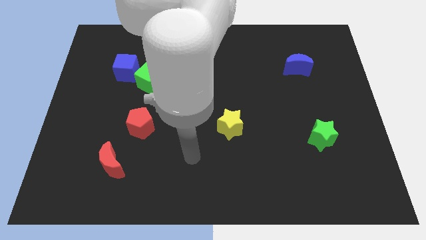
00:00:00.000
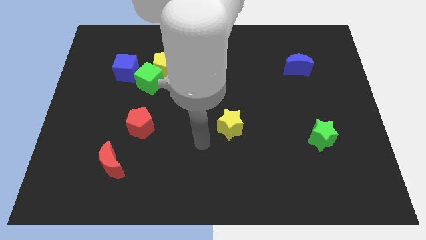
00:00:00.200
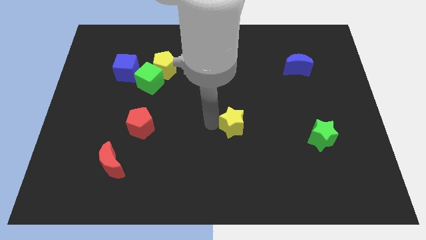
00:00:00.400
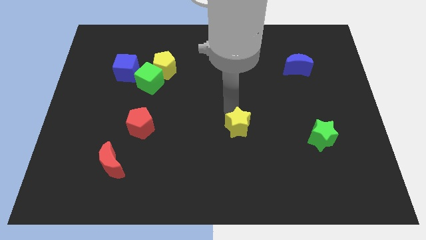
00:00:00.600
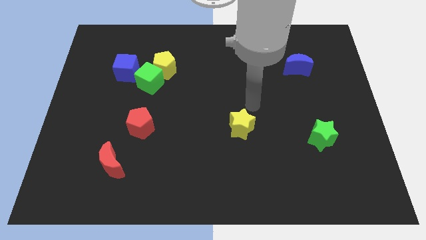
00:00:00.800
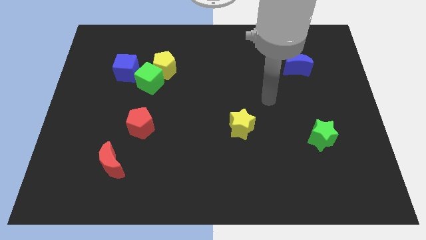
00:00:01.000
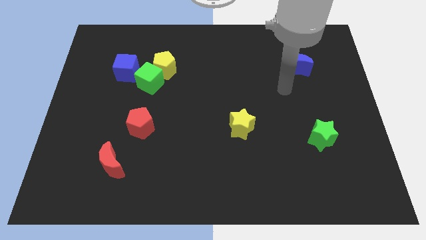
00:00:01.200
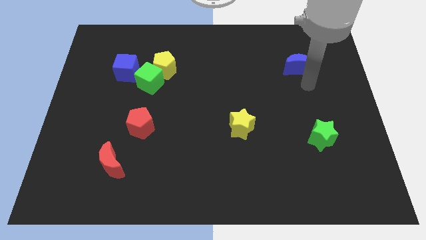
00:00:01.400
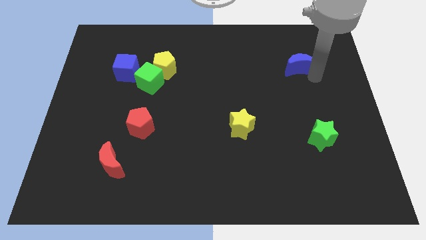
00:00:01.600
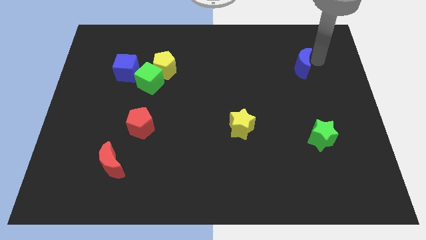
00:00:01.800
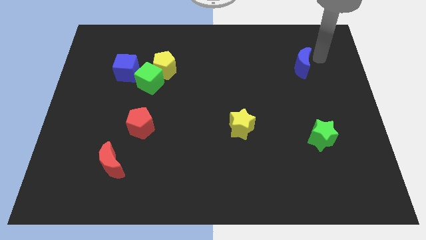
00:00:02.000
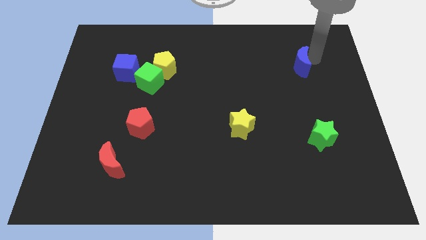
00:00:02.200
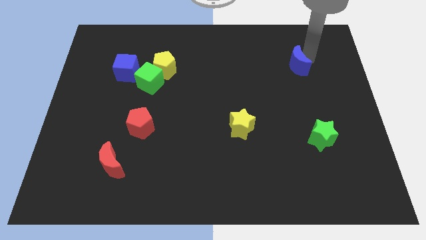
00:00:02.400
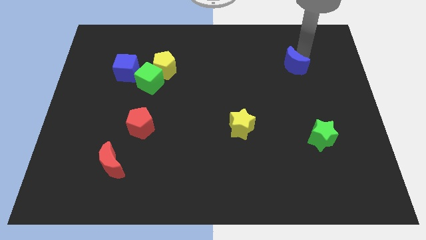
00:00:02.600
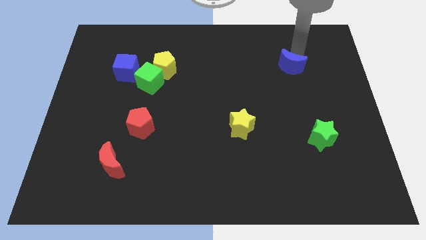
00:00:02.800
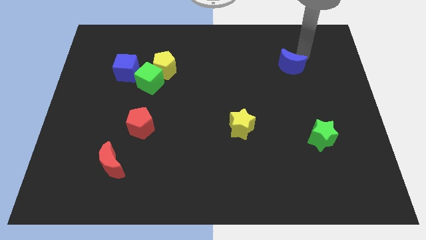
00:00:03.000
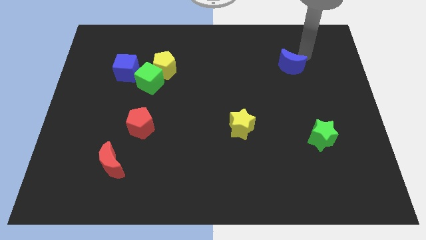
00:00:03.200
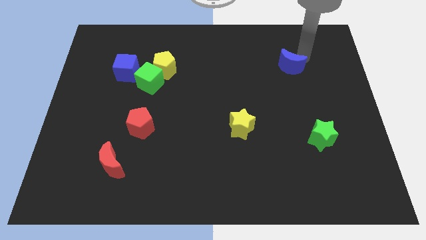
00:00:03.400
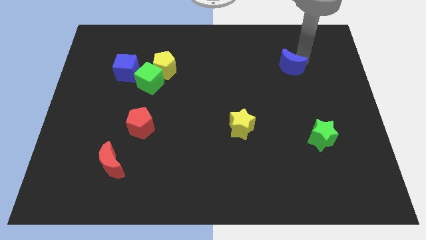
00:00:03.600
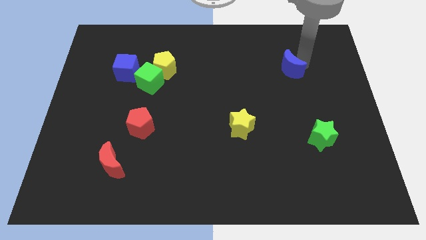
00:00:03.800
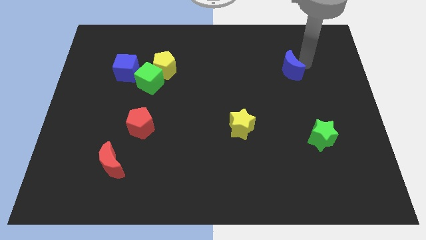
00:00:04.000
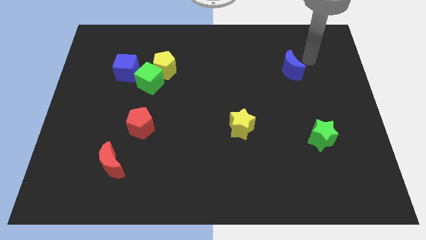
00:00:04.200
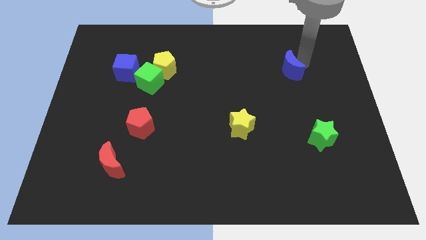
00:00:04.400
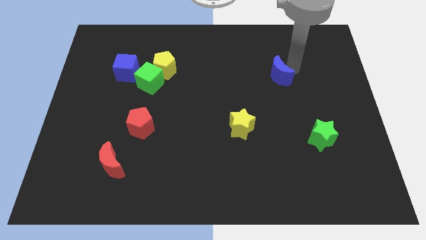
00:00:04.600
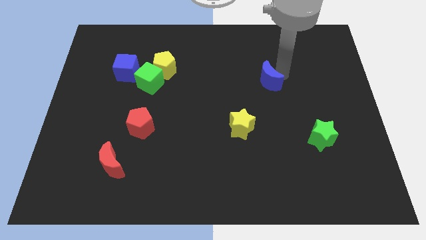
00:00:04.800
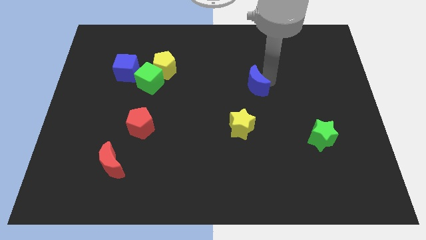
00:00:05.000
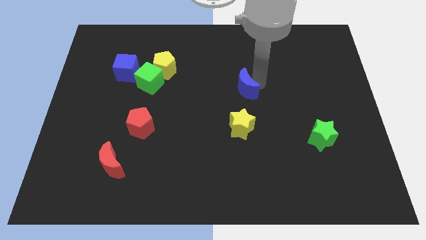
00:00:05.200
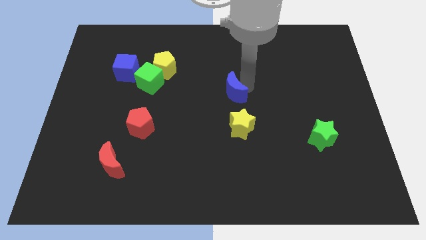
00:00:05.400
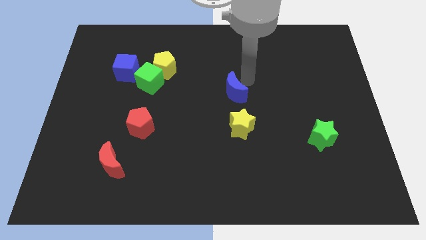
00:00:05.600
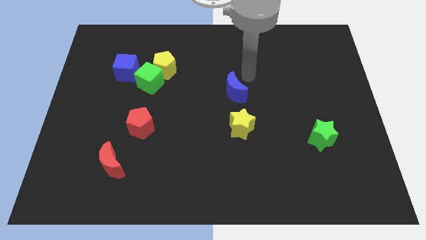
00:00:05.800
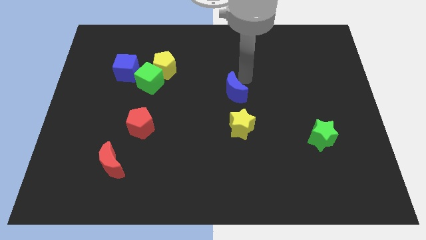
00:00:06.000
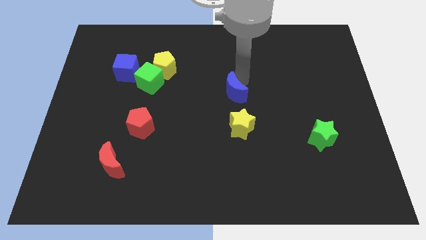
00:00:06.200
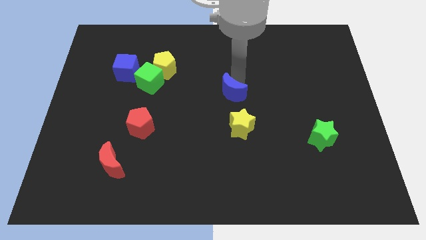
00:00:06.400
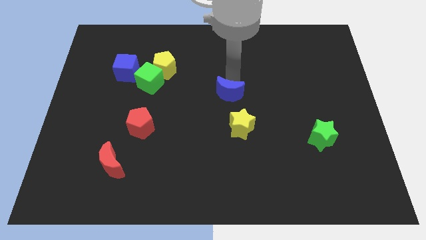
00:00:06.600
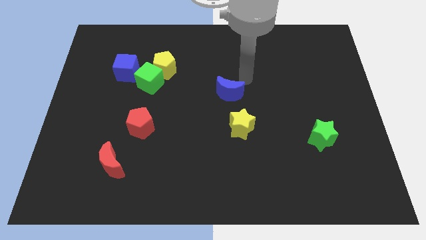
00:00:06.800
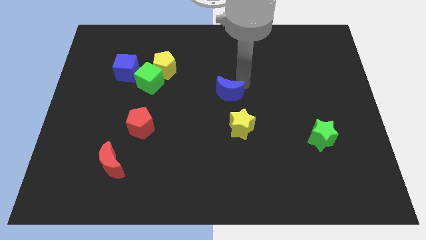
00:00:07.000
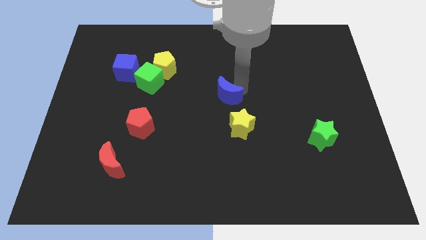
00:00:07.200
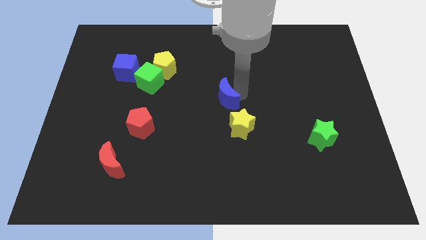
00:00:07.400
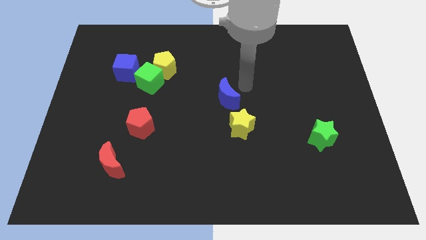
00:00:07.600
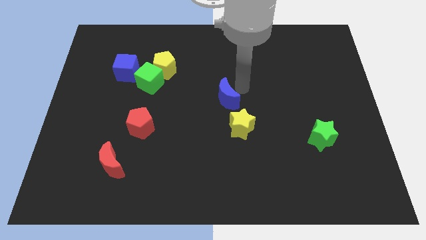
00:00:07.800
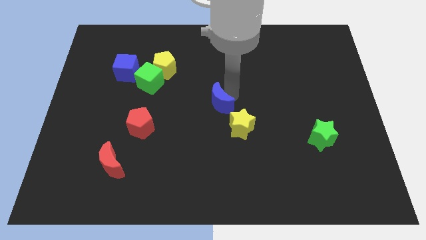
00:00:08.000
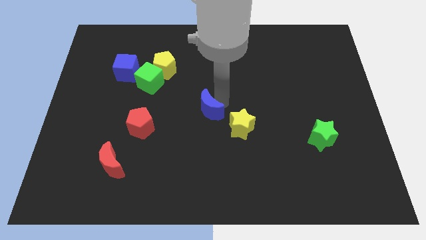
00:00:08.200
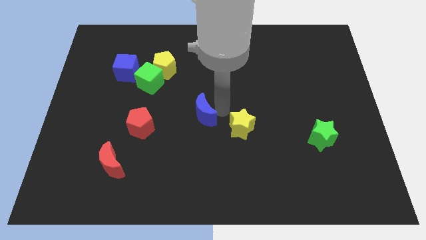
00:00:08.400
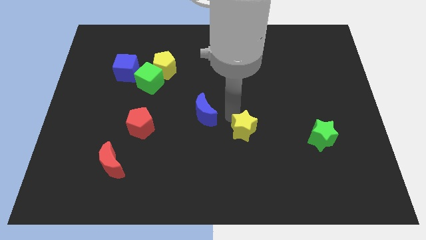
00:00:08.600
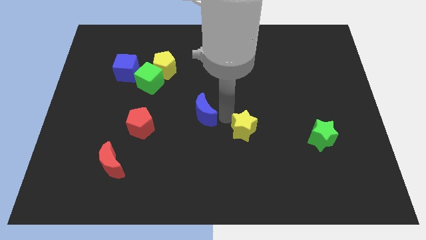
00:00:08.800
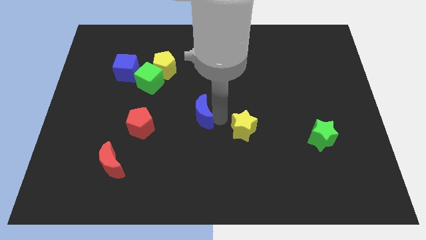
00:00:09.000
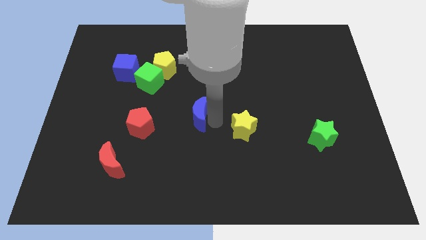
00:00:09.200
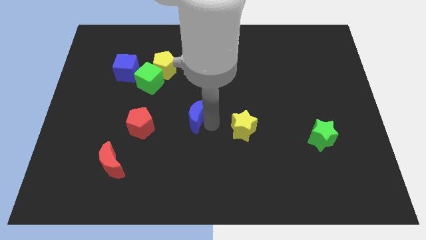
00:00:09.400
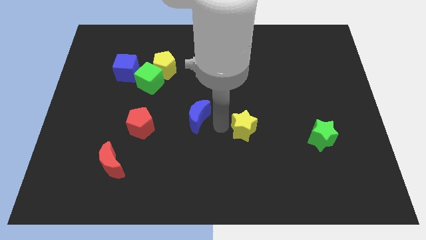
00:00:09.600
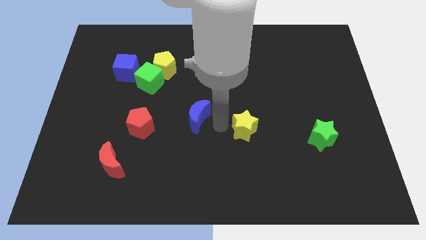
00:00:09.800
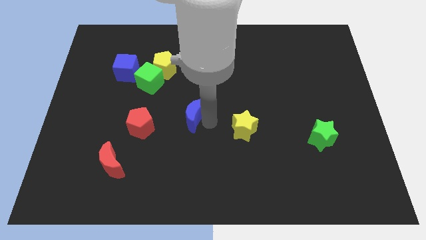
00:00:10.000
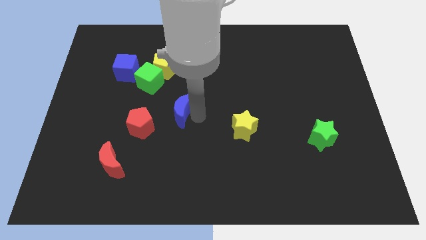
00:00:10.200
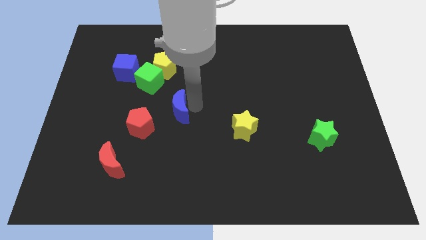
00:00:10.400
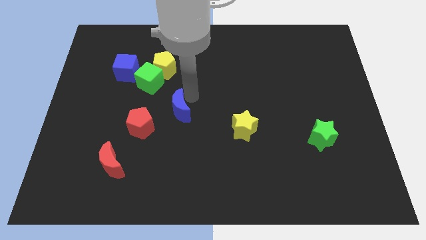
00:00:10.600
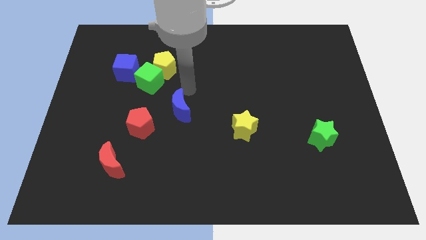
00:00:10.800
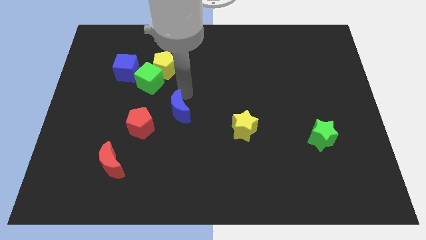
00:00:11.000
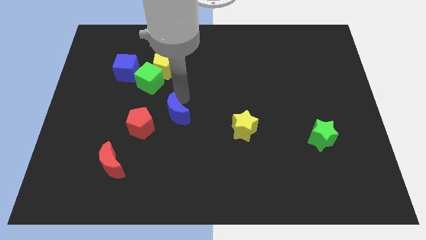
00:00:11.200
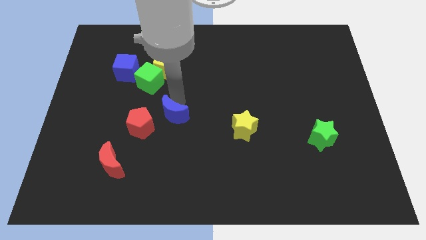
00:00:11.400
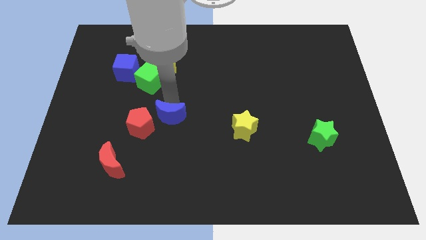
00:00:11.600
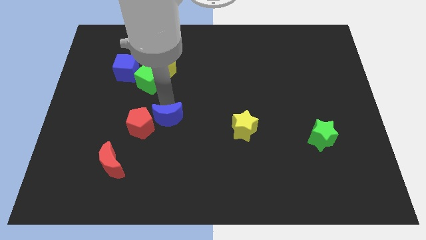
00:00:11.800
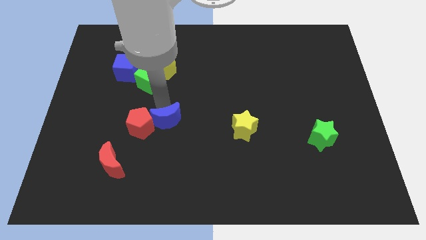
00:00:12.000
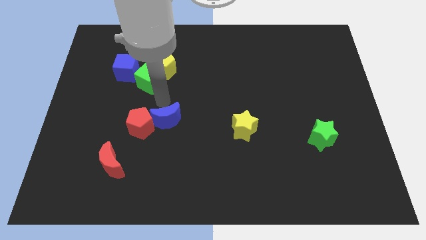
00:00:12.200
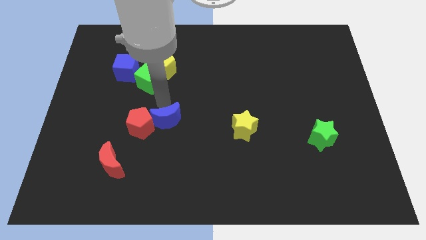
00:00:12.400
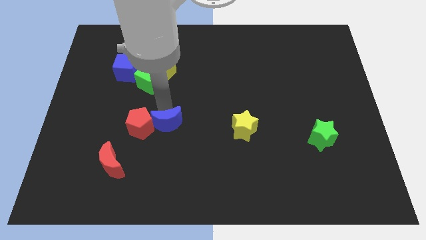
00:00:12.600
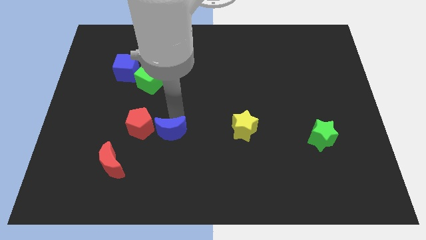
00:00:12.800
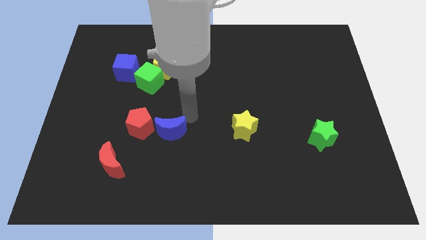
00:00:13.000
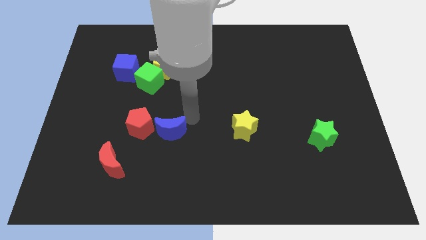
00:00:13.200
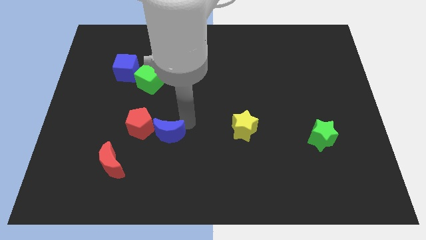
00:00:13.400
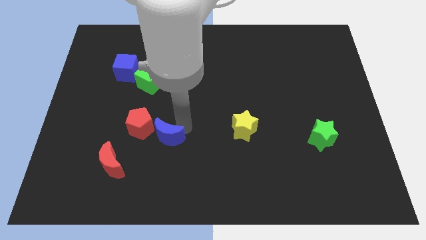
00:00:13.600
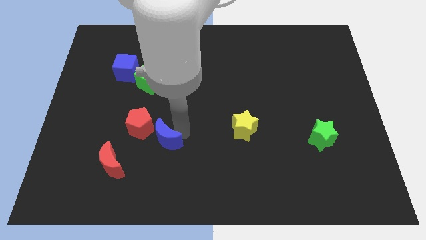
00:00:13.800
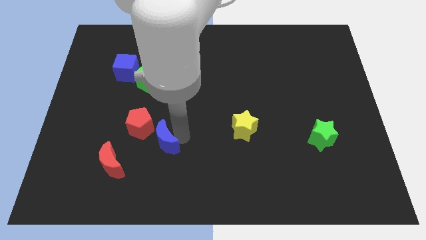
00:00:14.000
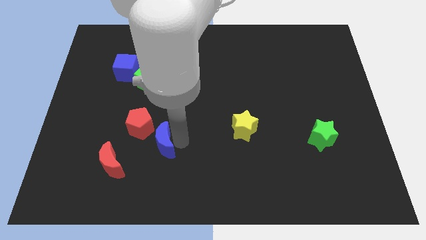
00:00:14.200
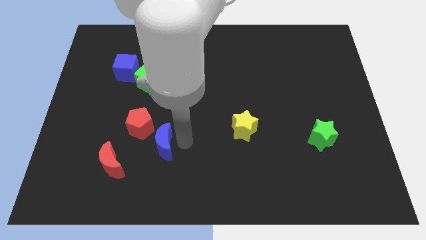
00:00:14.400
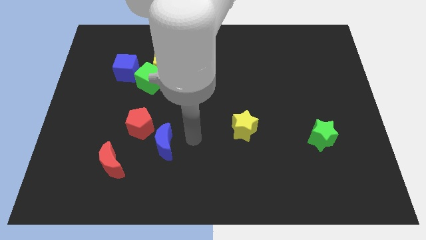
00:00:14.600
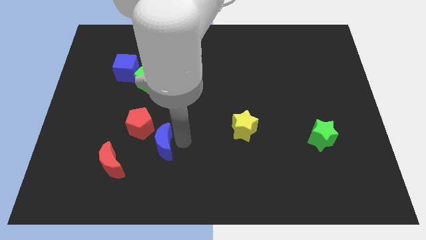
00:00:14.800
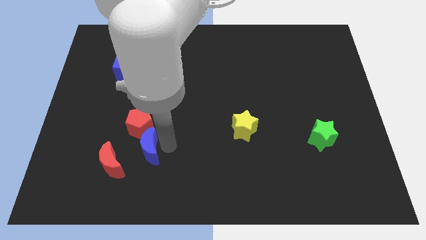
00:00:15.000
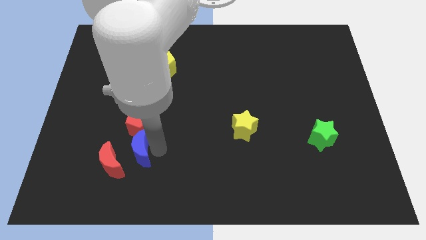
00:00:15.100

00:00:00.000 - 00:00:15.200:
slide the blue moon diagonally down and to the left of the red pentagon
